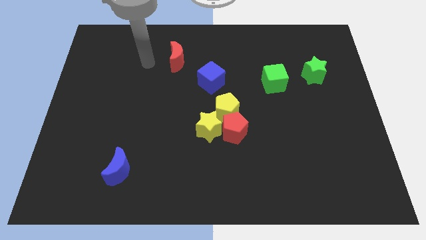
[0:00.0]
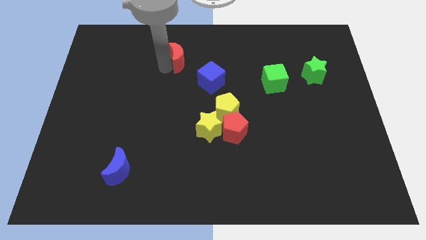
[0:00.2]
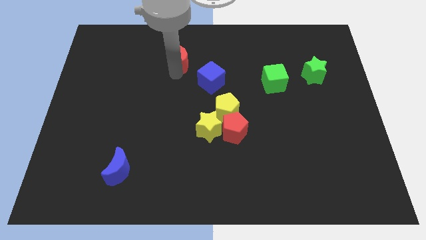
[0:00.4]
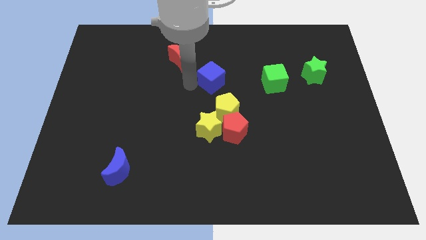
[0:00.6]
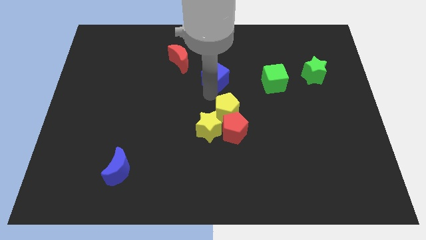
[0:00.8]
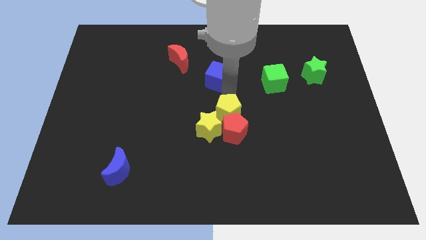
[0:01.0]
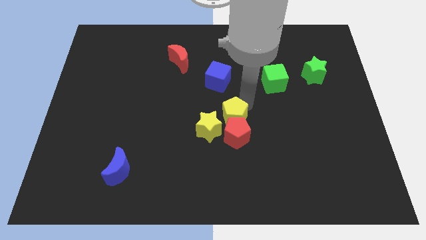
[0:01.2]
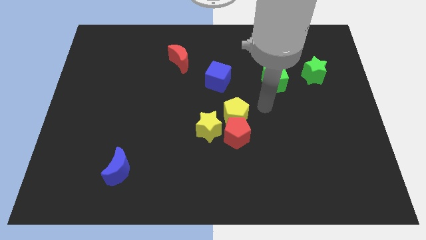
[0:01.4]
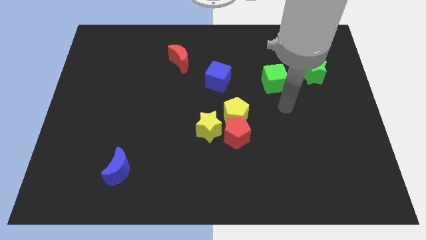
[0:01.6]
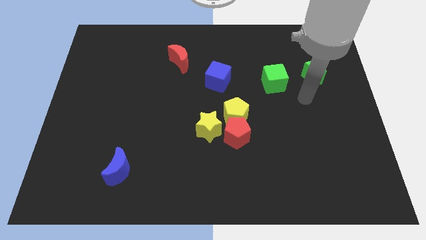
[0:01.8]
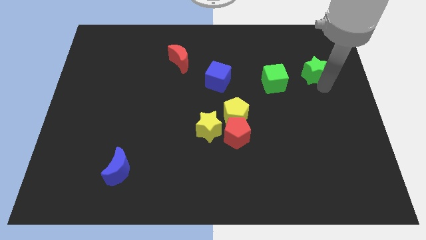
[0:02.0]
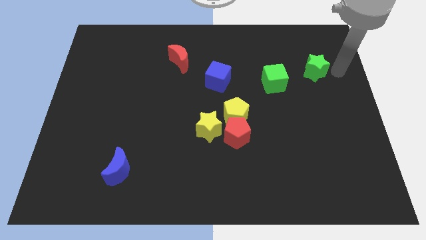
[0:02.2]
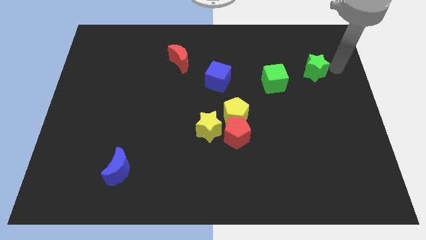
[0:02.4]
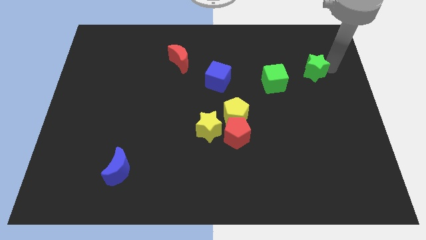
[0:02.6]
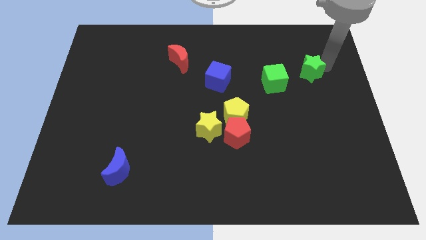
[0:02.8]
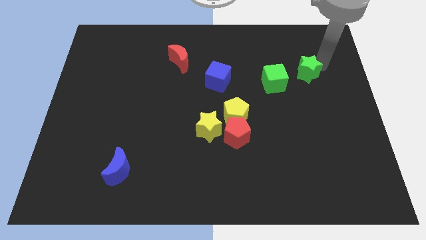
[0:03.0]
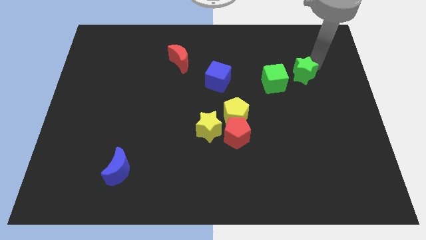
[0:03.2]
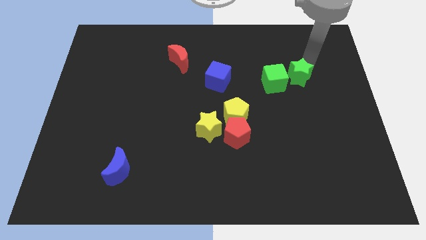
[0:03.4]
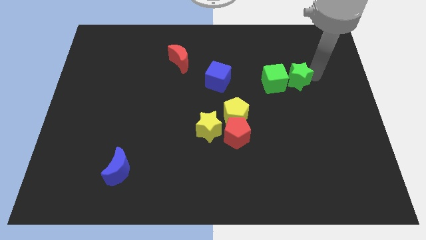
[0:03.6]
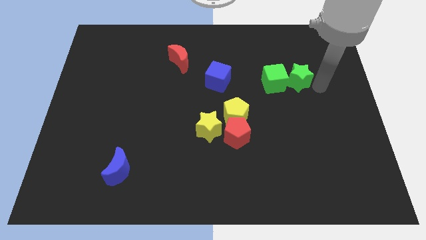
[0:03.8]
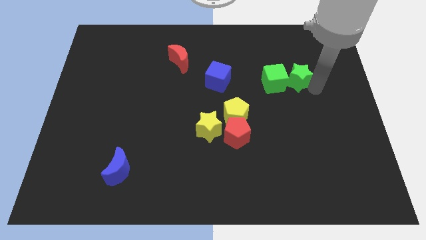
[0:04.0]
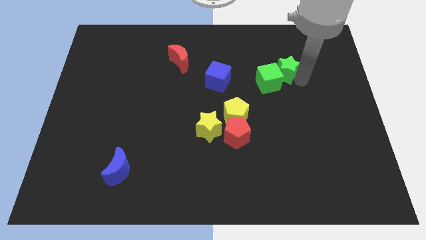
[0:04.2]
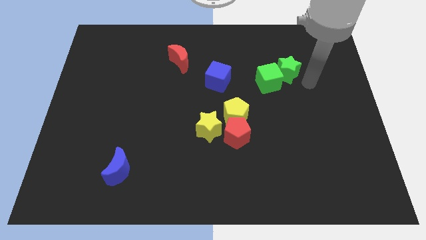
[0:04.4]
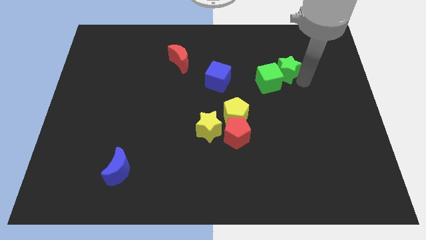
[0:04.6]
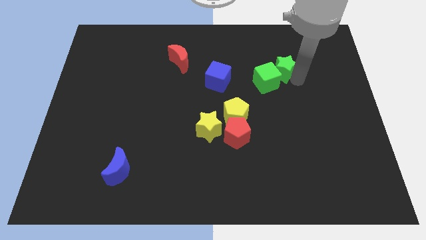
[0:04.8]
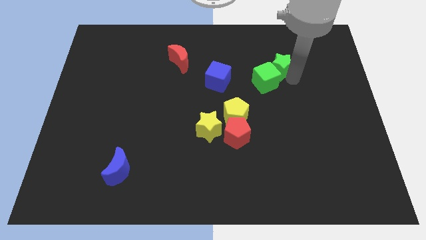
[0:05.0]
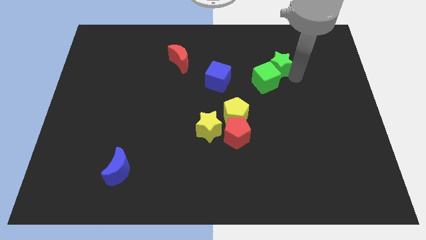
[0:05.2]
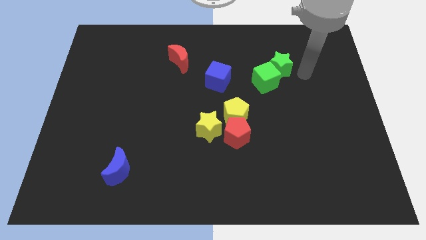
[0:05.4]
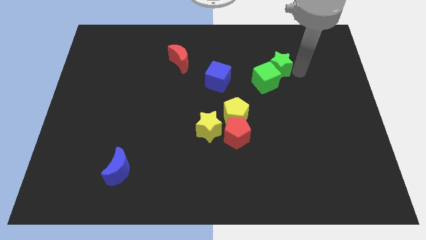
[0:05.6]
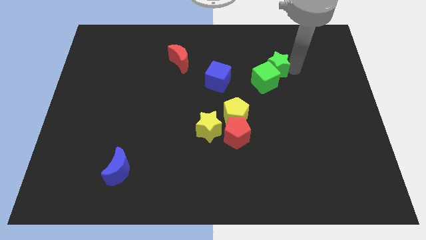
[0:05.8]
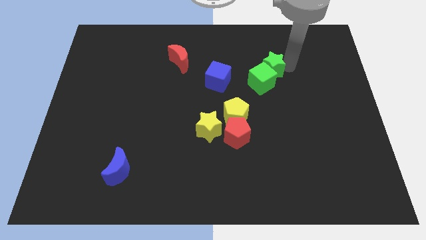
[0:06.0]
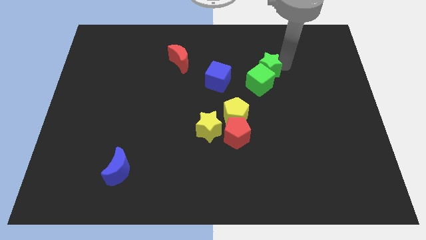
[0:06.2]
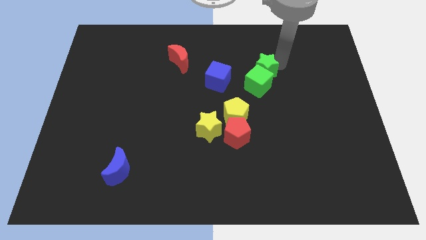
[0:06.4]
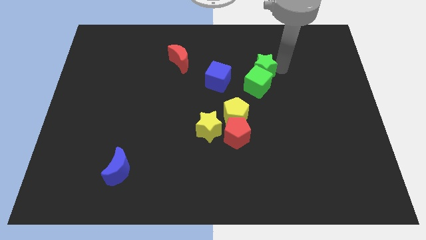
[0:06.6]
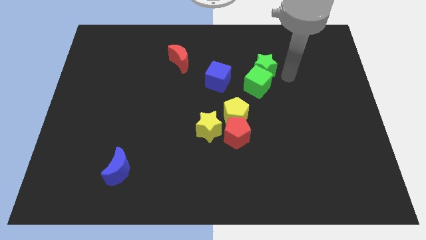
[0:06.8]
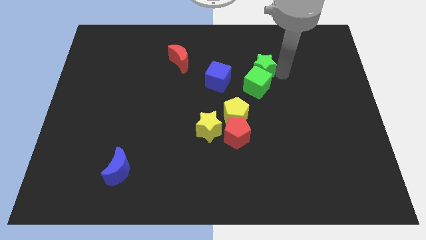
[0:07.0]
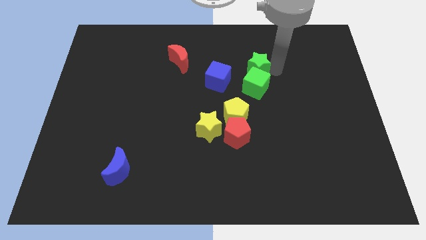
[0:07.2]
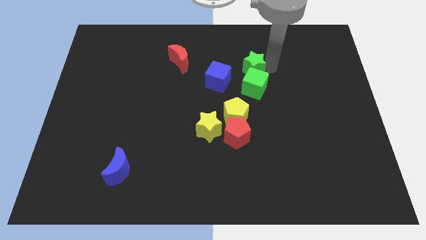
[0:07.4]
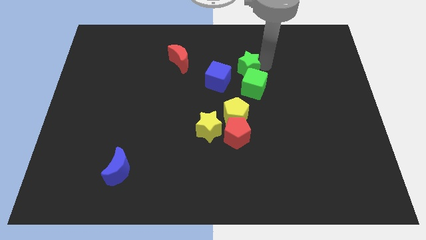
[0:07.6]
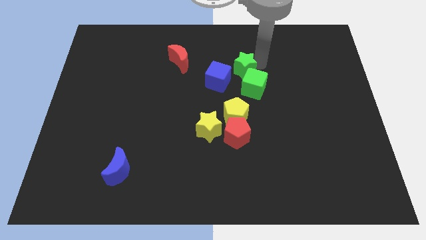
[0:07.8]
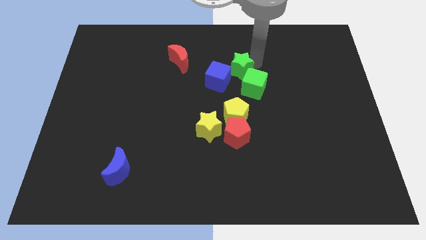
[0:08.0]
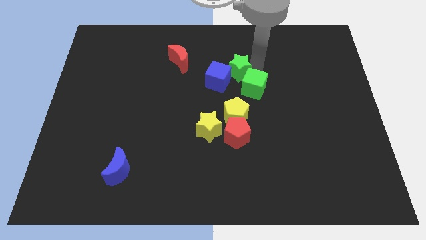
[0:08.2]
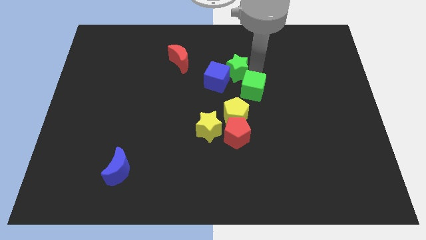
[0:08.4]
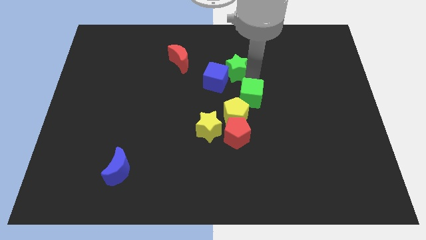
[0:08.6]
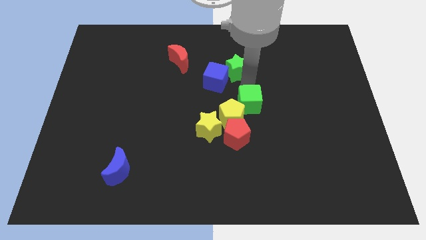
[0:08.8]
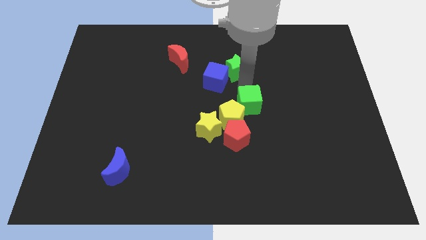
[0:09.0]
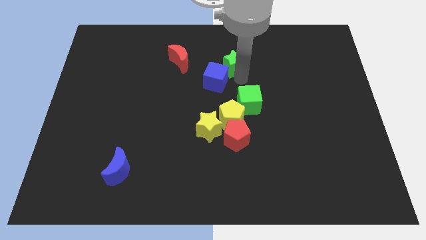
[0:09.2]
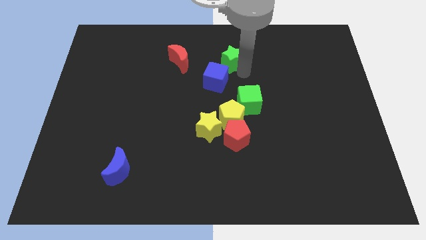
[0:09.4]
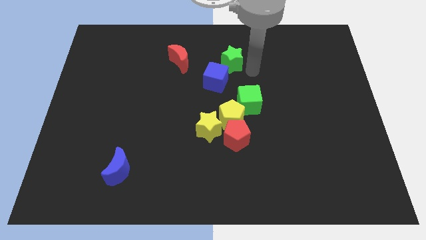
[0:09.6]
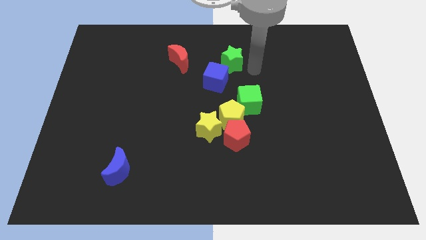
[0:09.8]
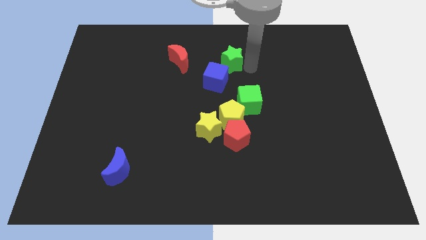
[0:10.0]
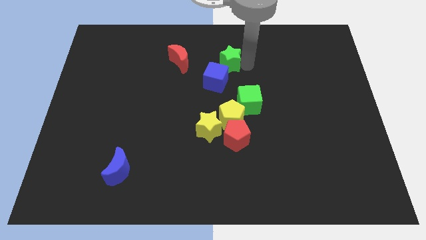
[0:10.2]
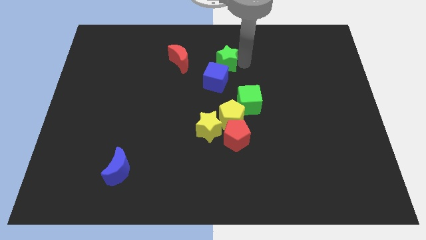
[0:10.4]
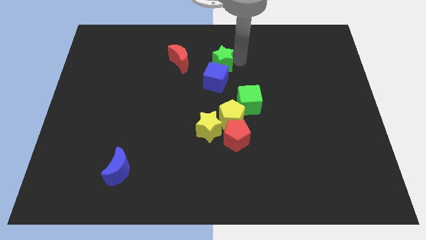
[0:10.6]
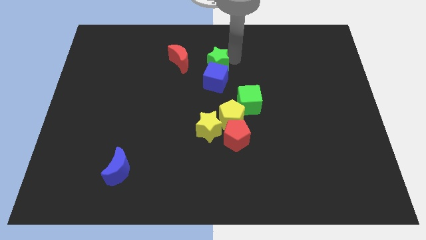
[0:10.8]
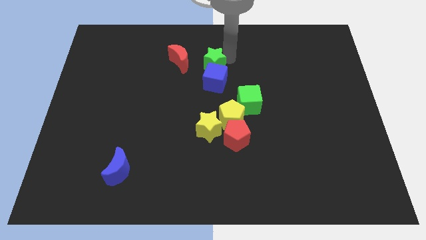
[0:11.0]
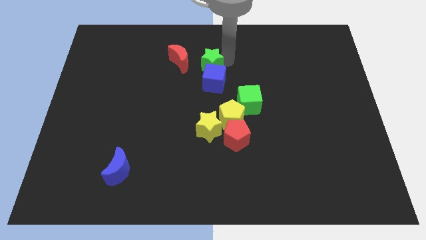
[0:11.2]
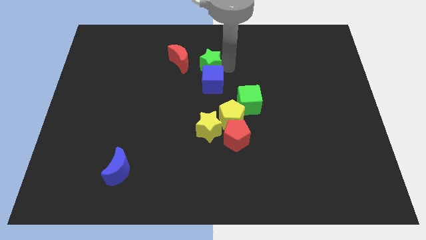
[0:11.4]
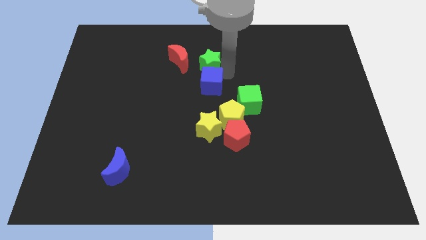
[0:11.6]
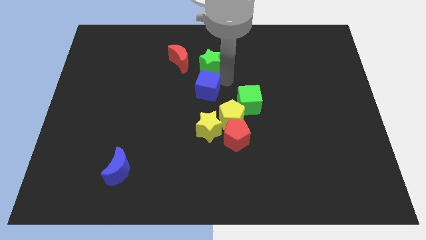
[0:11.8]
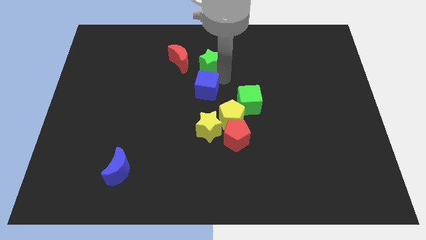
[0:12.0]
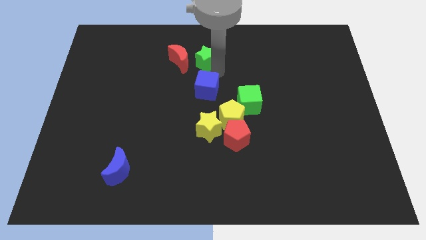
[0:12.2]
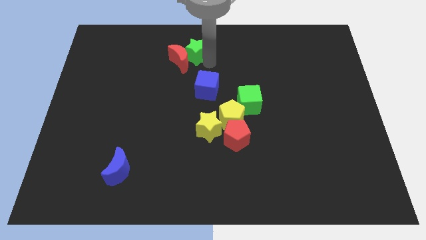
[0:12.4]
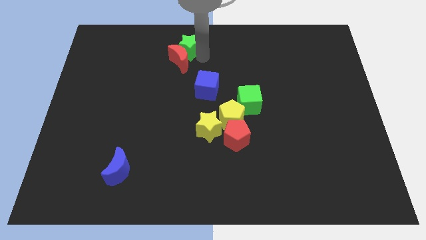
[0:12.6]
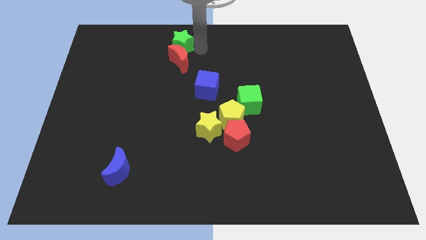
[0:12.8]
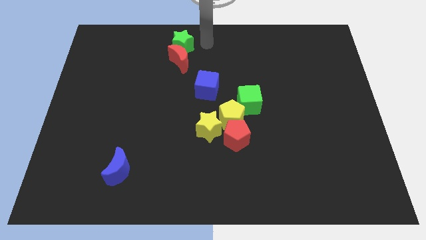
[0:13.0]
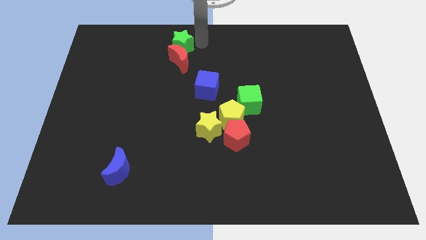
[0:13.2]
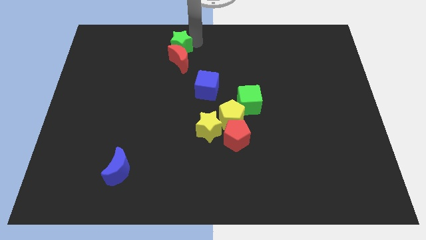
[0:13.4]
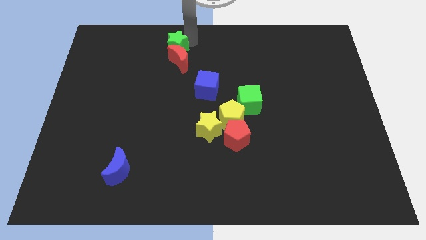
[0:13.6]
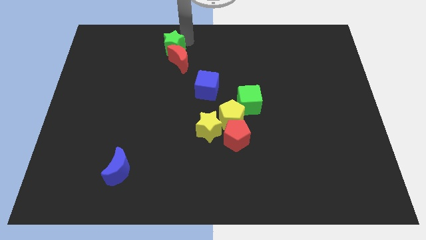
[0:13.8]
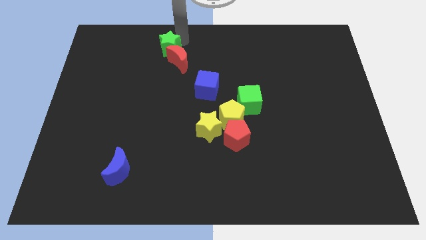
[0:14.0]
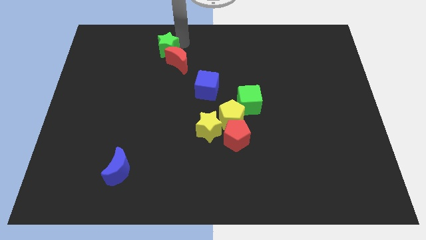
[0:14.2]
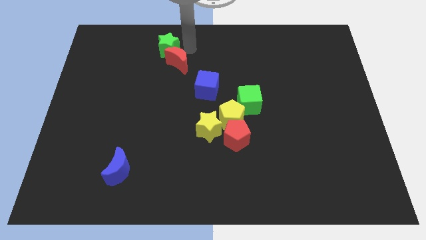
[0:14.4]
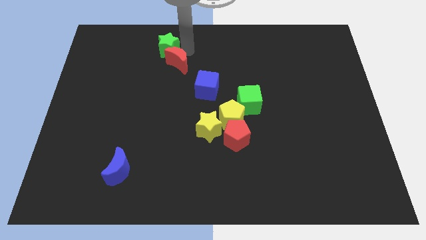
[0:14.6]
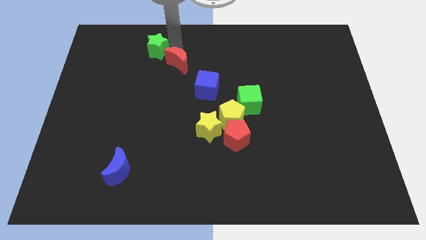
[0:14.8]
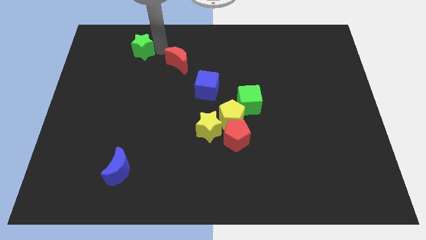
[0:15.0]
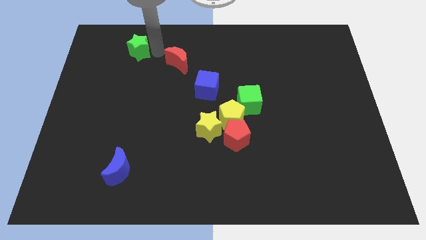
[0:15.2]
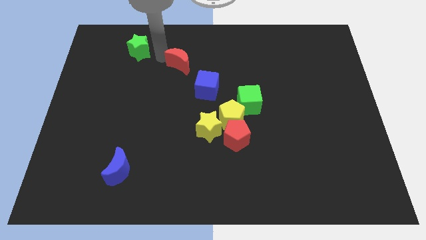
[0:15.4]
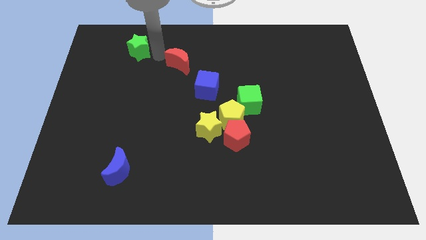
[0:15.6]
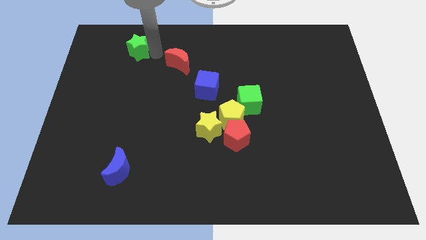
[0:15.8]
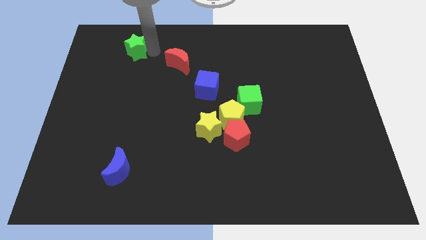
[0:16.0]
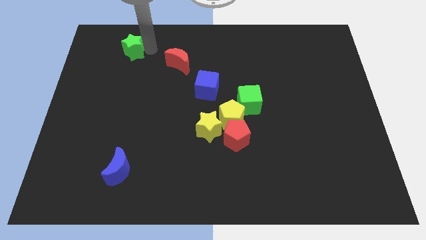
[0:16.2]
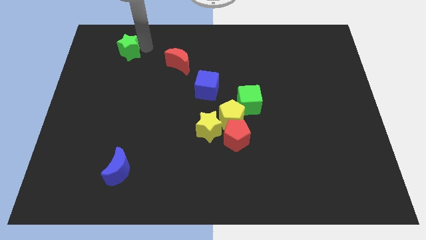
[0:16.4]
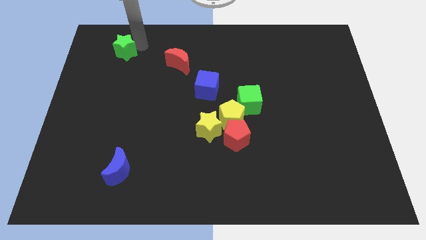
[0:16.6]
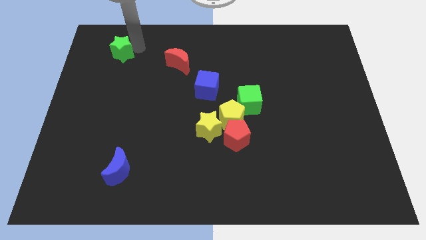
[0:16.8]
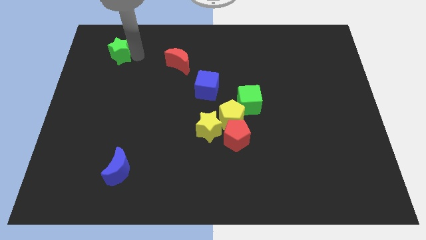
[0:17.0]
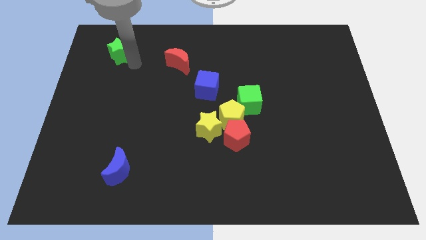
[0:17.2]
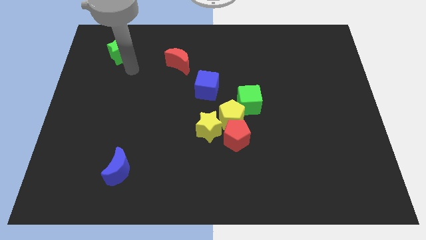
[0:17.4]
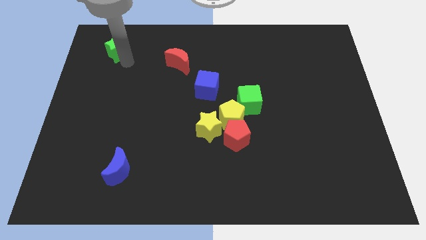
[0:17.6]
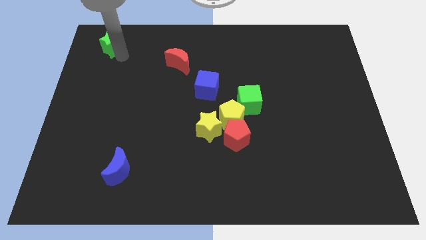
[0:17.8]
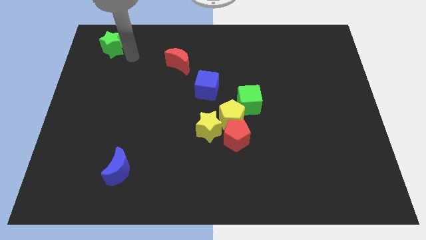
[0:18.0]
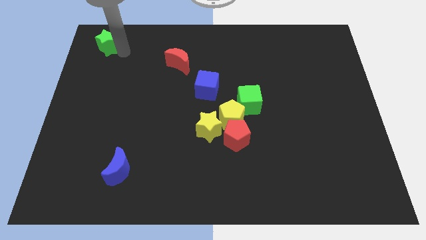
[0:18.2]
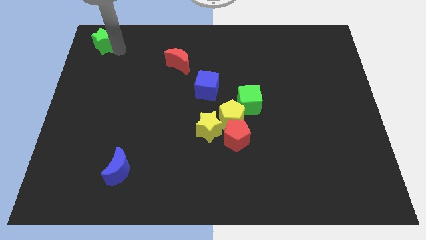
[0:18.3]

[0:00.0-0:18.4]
move the green star to the top left of the board
